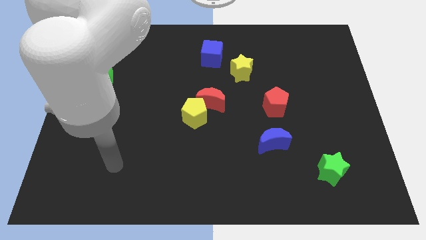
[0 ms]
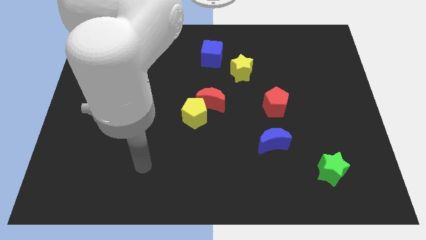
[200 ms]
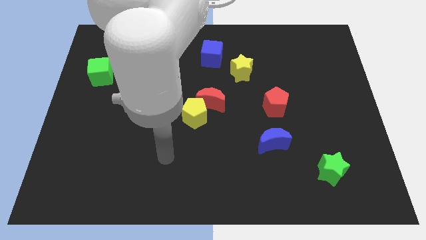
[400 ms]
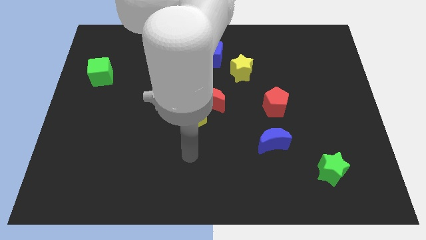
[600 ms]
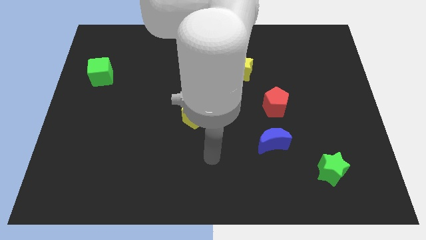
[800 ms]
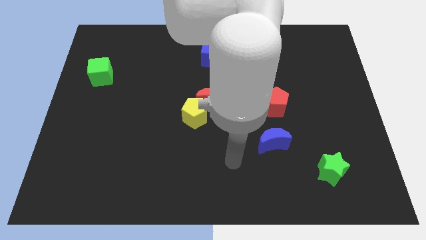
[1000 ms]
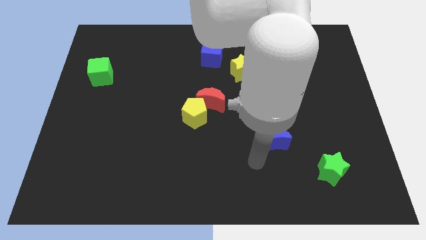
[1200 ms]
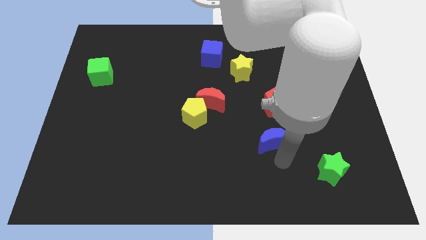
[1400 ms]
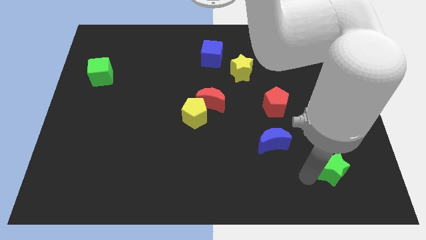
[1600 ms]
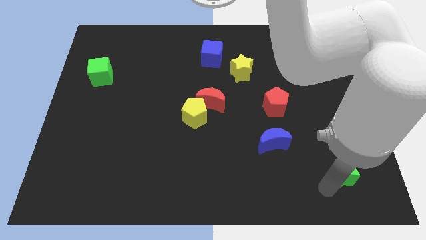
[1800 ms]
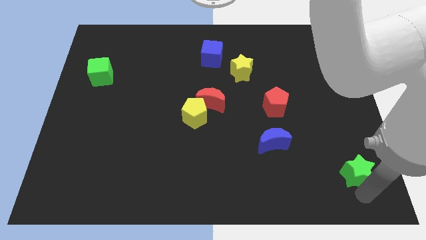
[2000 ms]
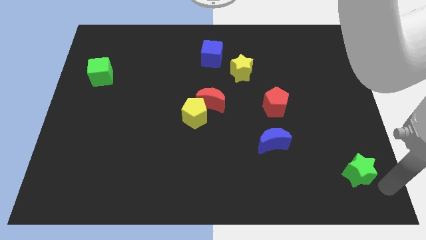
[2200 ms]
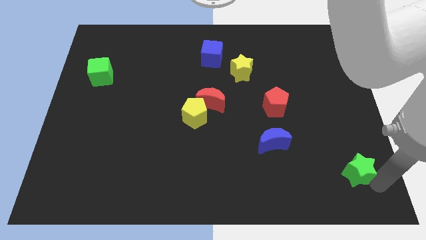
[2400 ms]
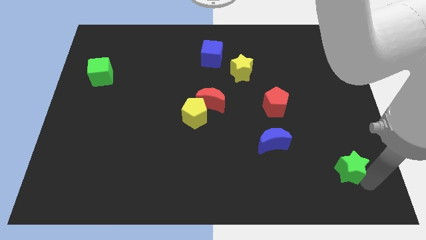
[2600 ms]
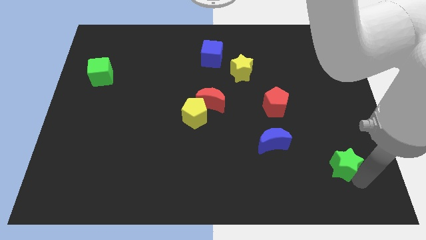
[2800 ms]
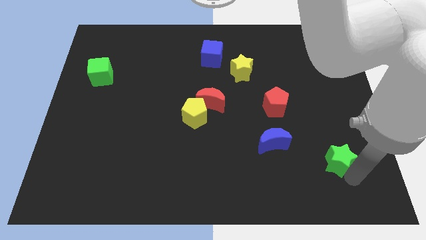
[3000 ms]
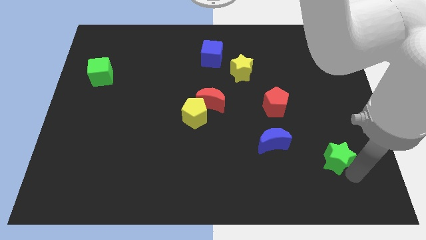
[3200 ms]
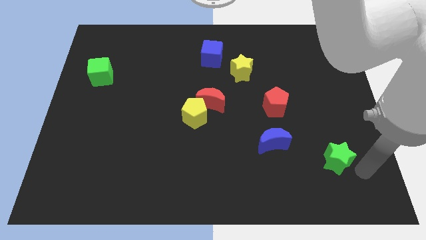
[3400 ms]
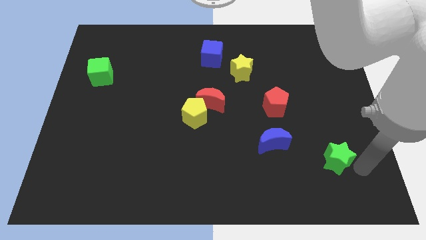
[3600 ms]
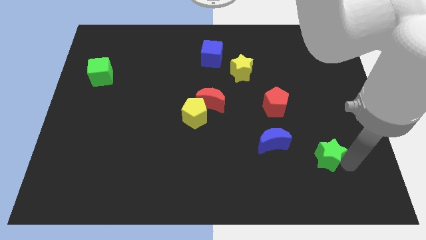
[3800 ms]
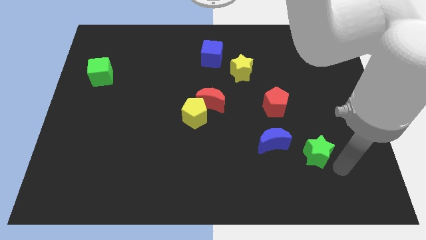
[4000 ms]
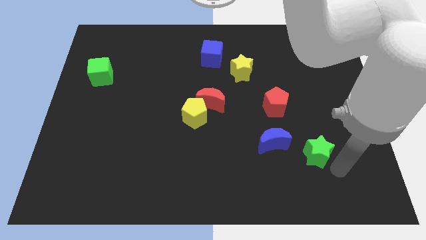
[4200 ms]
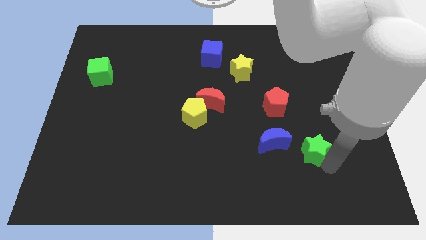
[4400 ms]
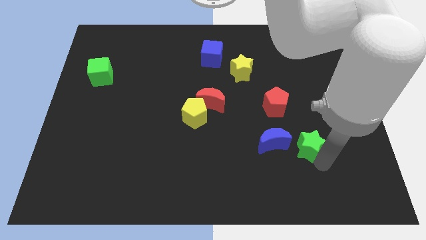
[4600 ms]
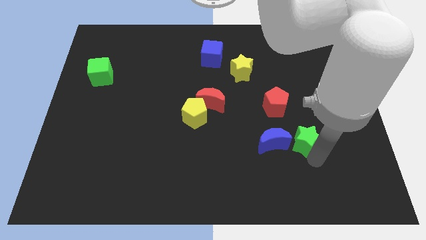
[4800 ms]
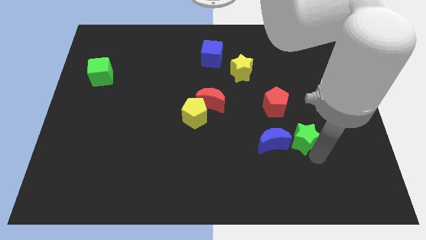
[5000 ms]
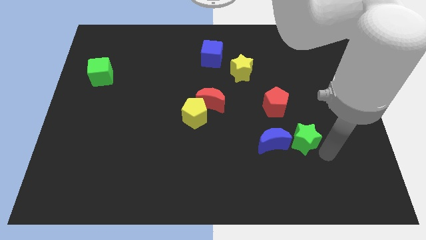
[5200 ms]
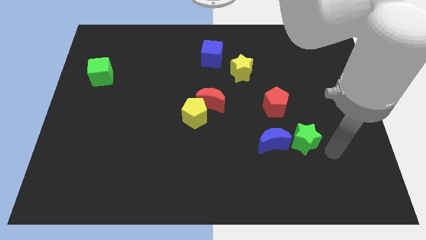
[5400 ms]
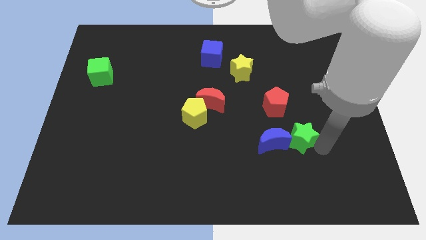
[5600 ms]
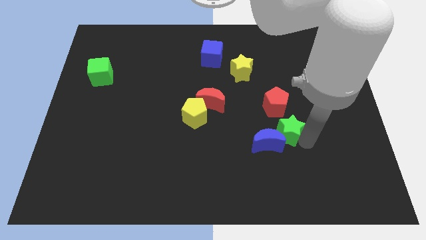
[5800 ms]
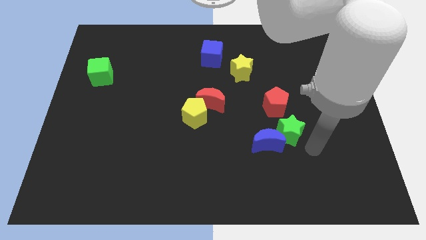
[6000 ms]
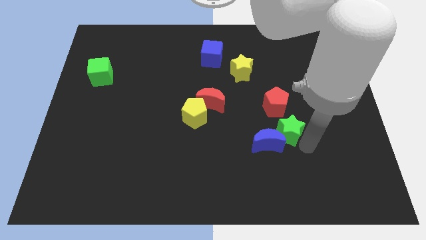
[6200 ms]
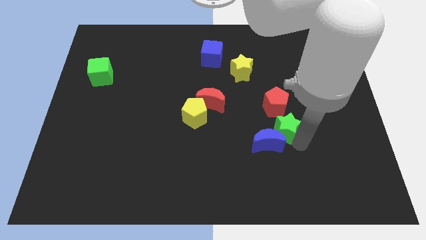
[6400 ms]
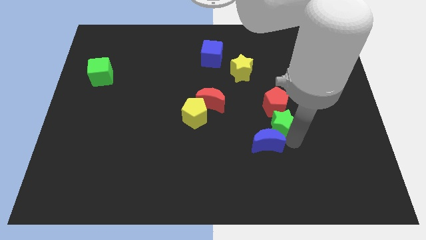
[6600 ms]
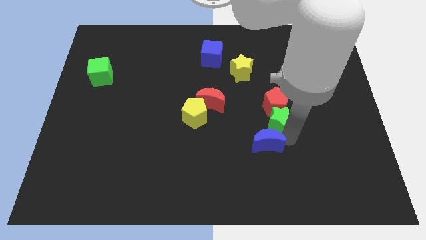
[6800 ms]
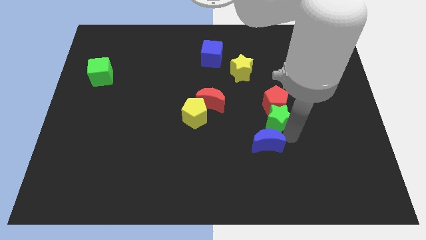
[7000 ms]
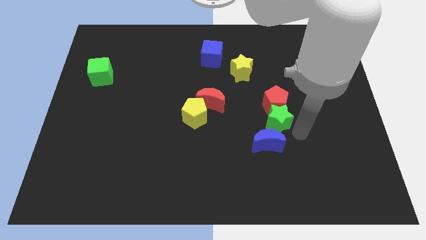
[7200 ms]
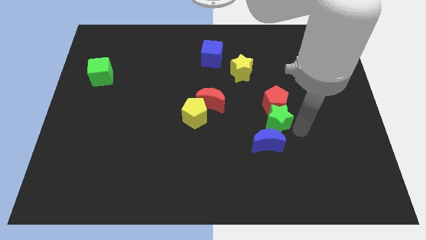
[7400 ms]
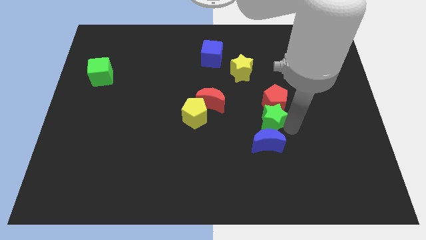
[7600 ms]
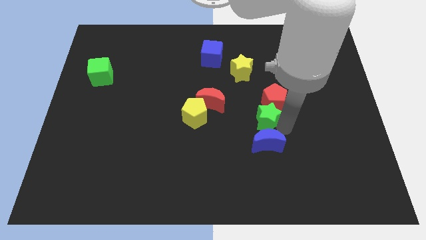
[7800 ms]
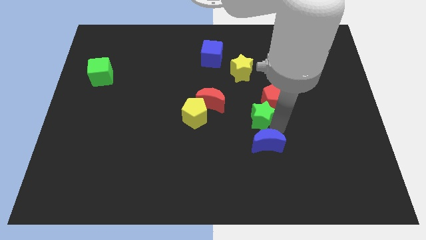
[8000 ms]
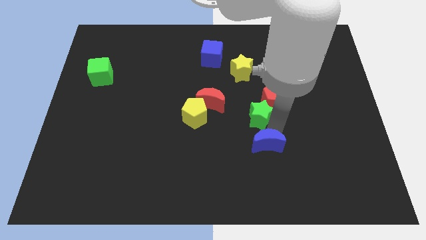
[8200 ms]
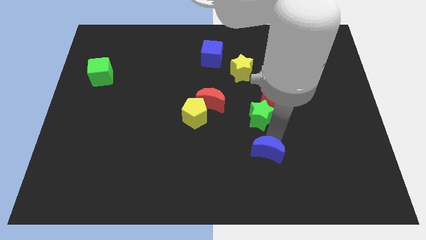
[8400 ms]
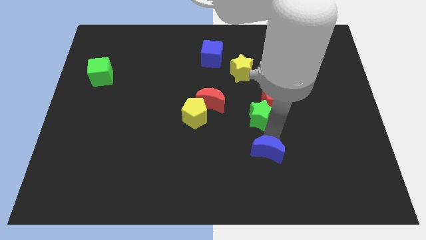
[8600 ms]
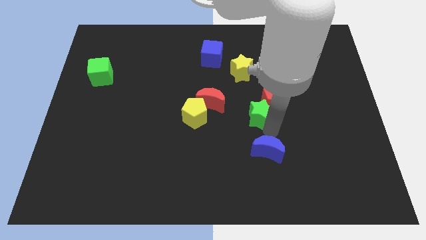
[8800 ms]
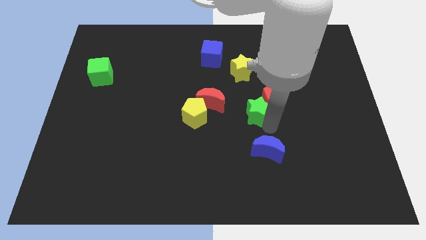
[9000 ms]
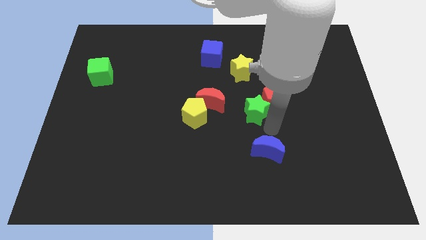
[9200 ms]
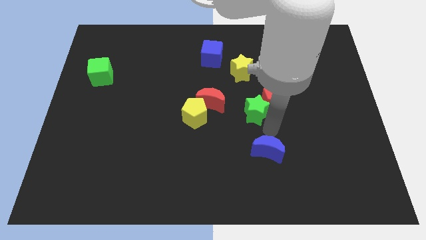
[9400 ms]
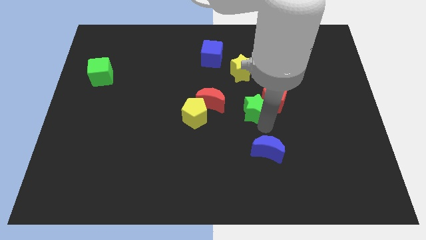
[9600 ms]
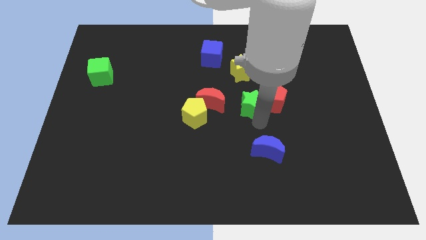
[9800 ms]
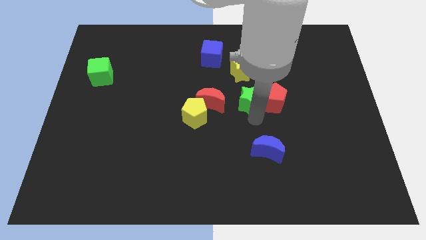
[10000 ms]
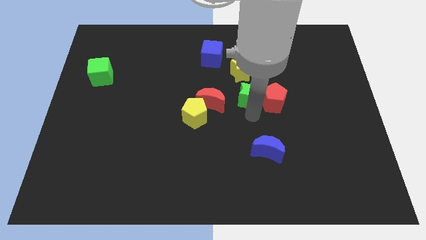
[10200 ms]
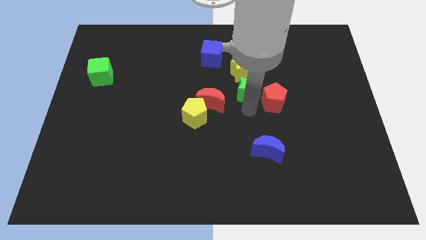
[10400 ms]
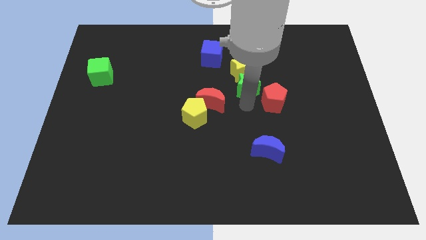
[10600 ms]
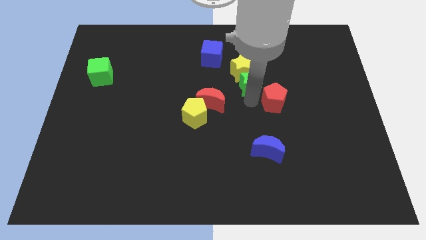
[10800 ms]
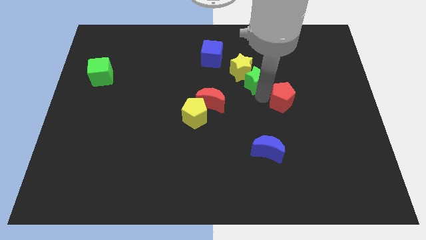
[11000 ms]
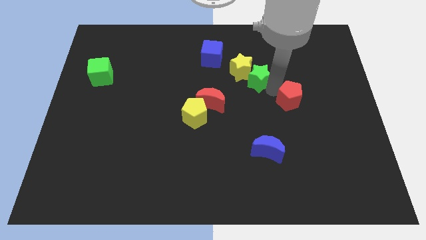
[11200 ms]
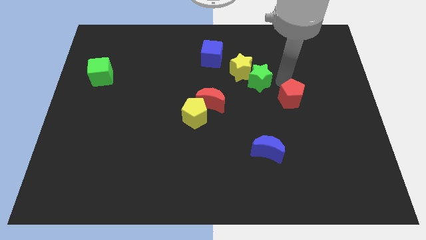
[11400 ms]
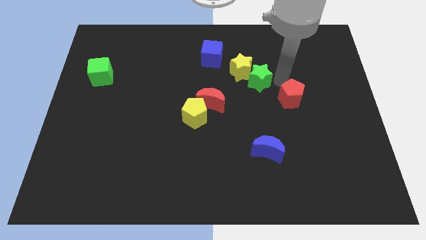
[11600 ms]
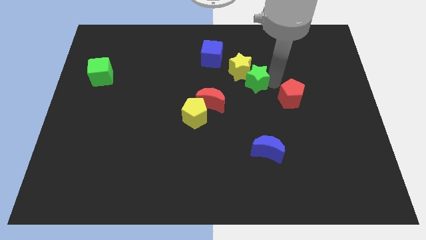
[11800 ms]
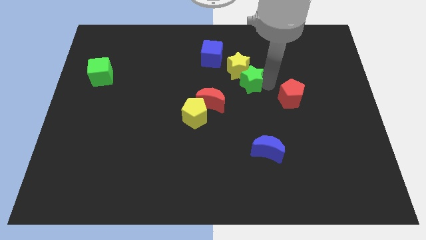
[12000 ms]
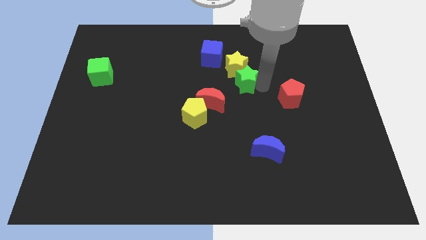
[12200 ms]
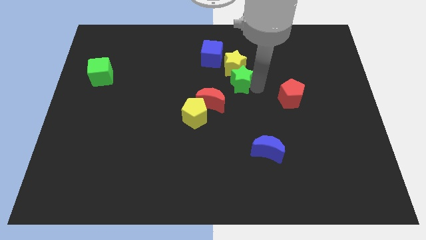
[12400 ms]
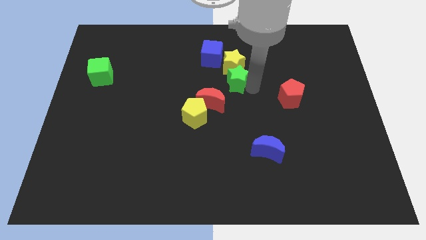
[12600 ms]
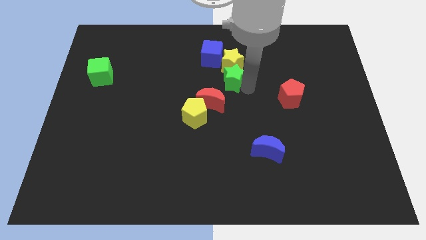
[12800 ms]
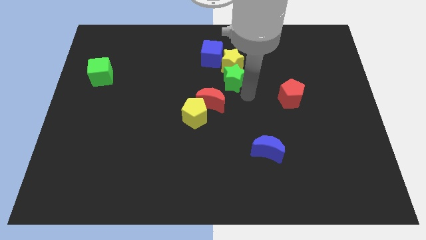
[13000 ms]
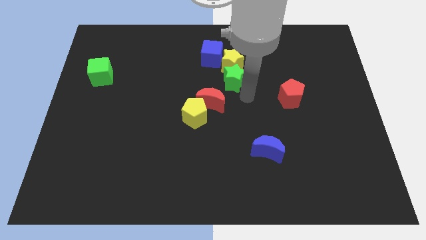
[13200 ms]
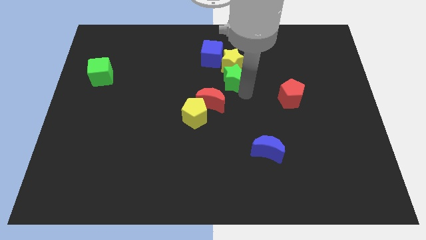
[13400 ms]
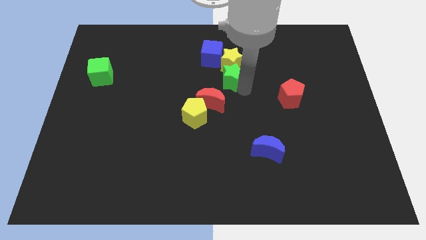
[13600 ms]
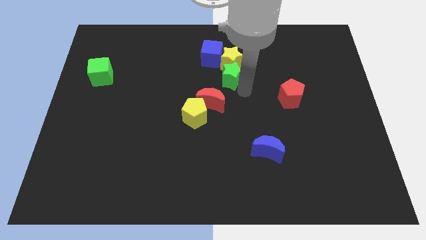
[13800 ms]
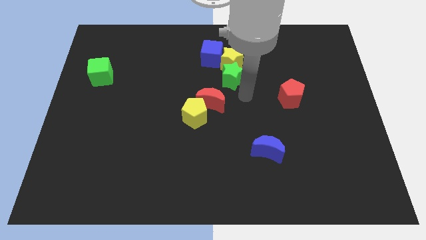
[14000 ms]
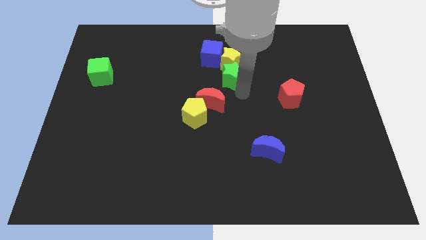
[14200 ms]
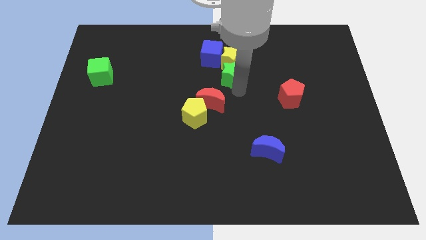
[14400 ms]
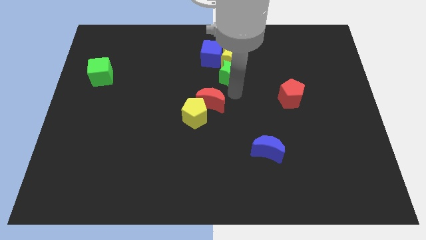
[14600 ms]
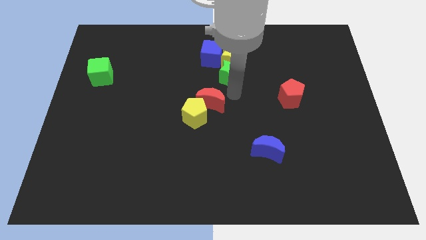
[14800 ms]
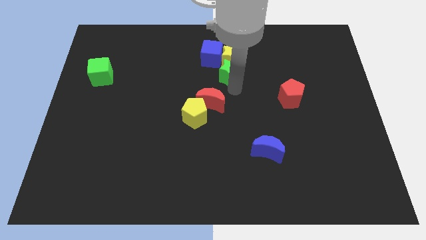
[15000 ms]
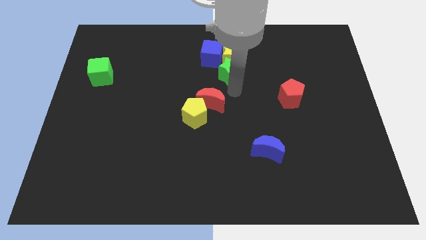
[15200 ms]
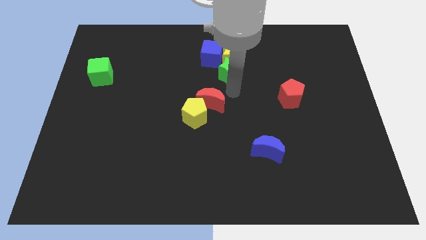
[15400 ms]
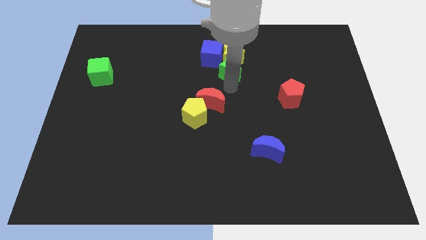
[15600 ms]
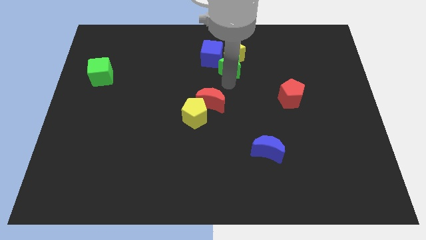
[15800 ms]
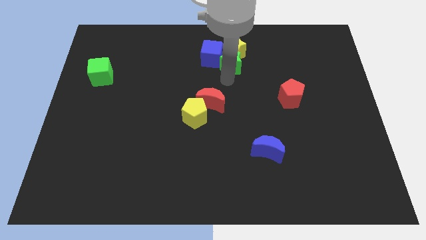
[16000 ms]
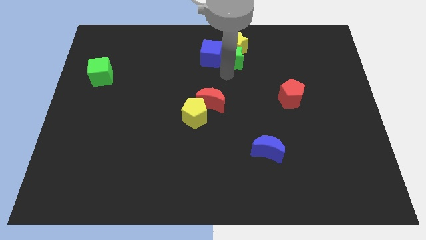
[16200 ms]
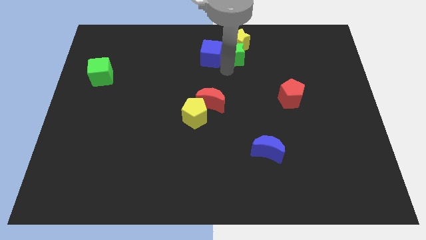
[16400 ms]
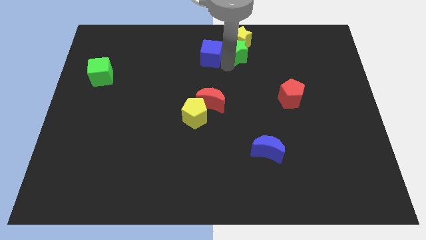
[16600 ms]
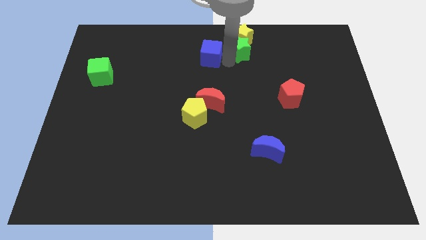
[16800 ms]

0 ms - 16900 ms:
push the green star to the top
